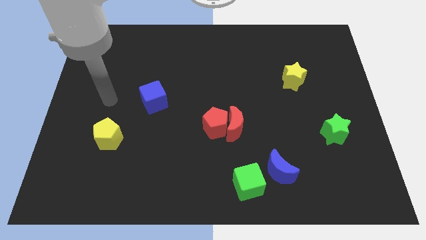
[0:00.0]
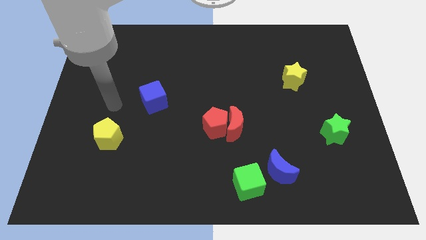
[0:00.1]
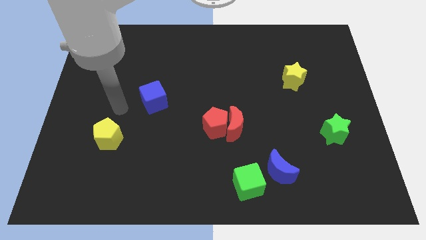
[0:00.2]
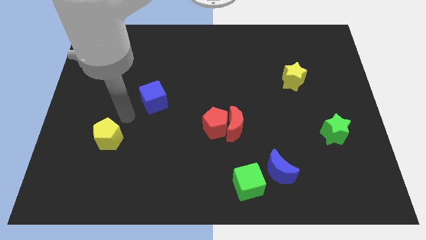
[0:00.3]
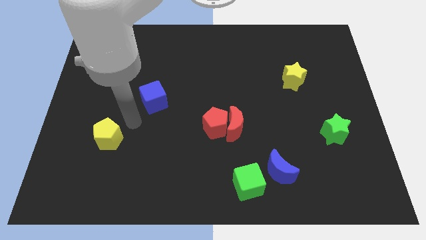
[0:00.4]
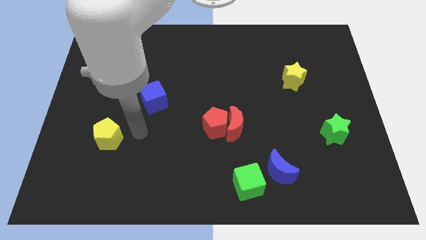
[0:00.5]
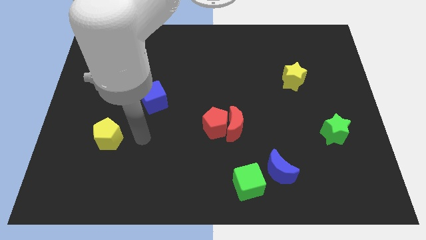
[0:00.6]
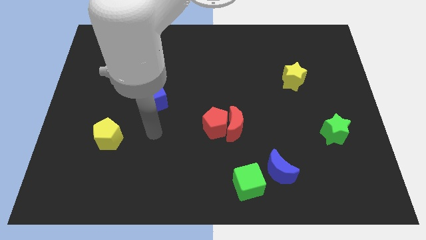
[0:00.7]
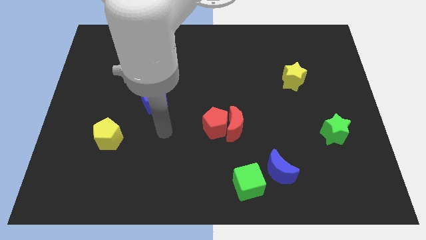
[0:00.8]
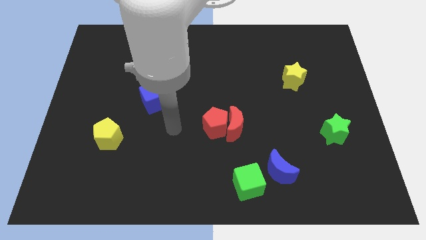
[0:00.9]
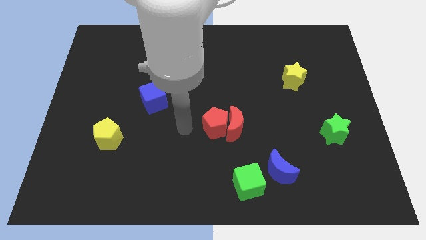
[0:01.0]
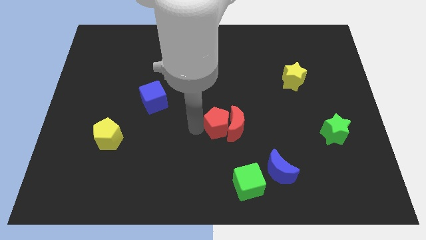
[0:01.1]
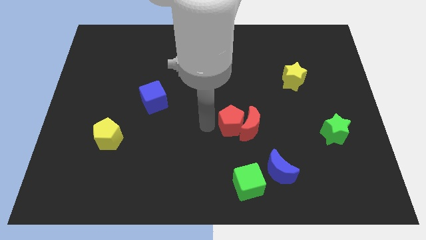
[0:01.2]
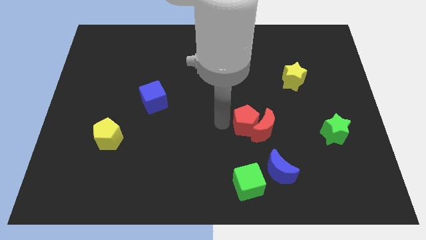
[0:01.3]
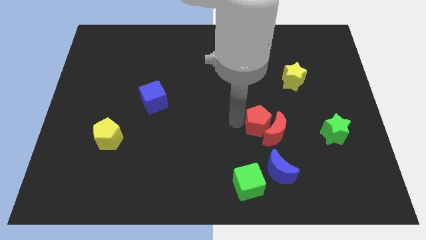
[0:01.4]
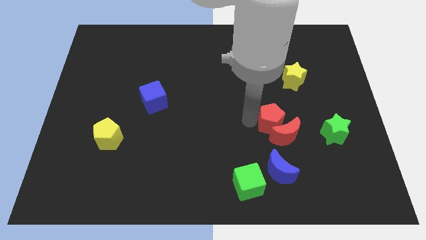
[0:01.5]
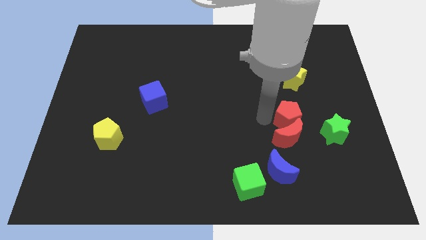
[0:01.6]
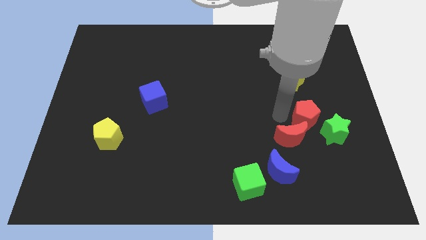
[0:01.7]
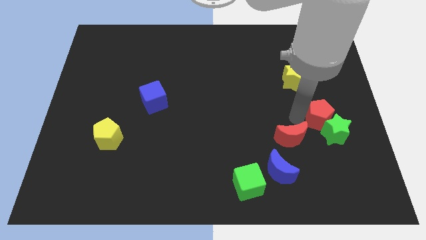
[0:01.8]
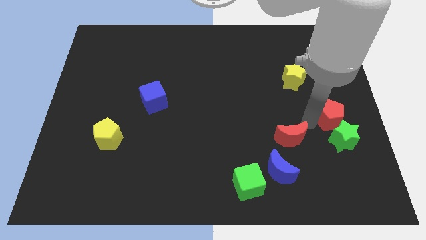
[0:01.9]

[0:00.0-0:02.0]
pull the red moon apart from the red pentagon

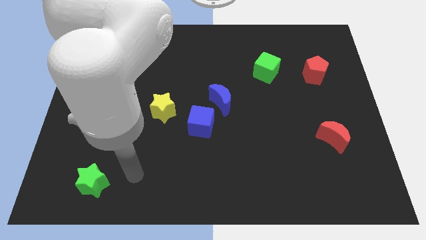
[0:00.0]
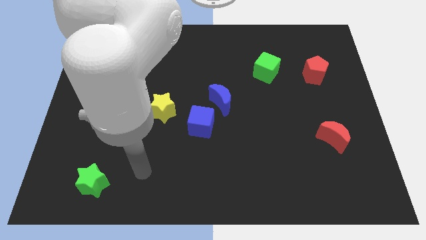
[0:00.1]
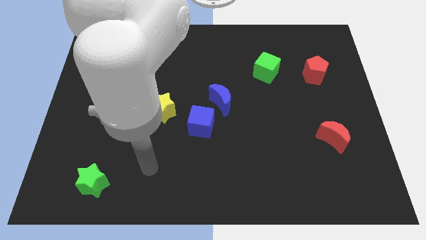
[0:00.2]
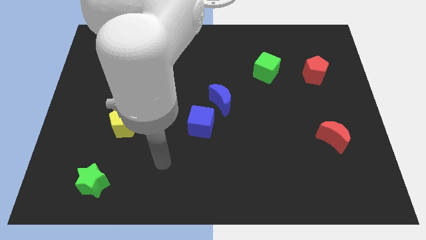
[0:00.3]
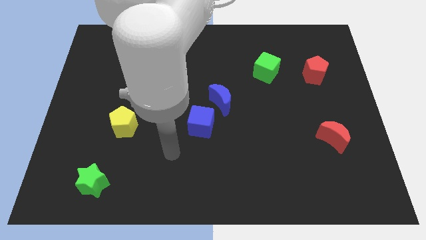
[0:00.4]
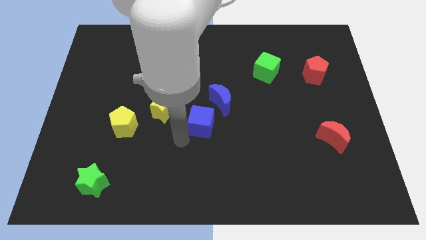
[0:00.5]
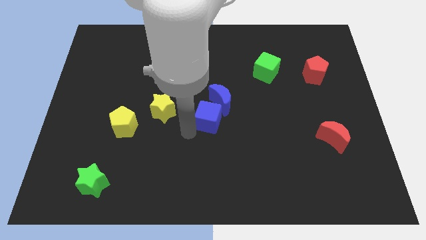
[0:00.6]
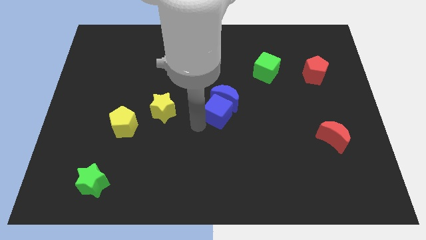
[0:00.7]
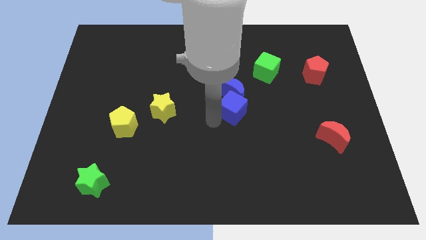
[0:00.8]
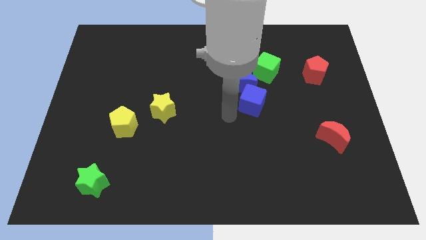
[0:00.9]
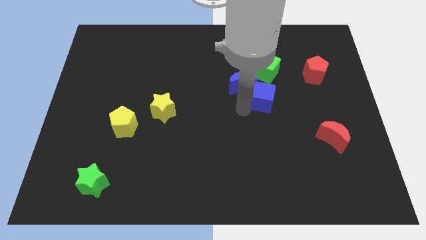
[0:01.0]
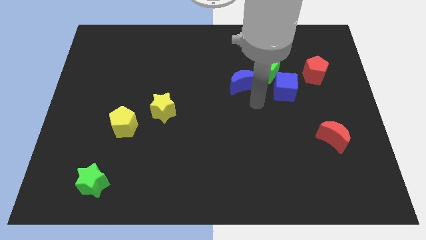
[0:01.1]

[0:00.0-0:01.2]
move the blue moon away from the blue cube

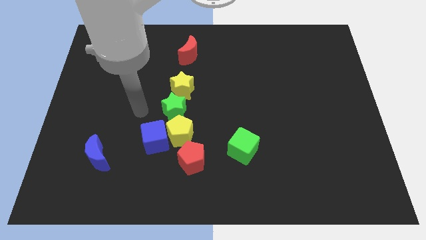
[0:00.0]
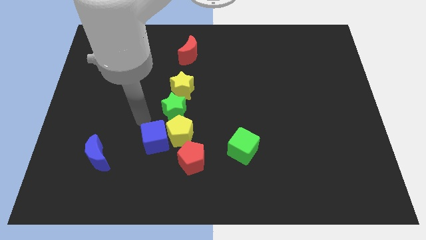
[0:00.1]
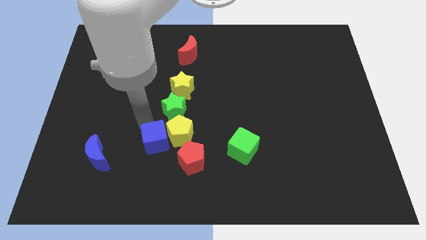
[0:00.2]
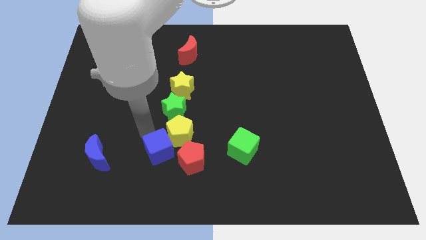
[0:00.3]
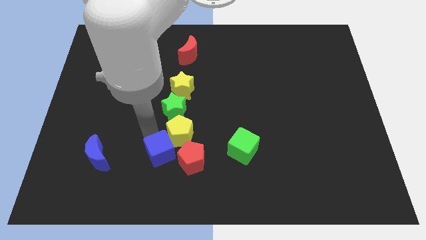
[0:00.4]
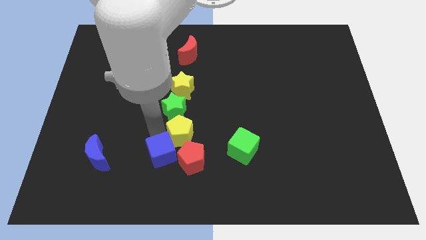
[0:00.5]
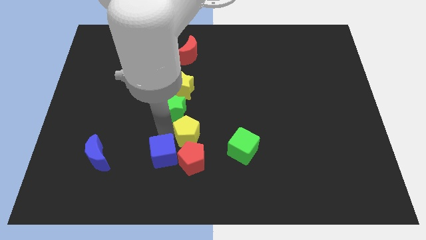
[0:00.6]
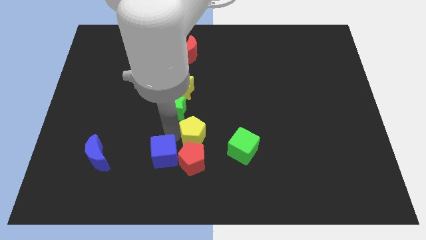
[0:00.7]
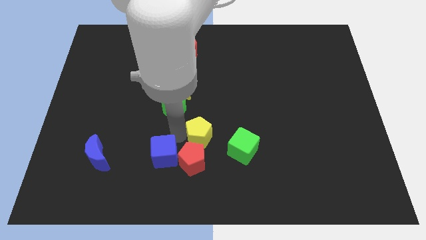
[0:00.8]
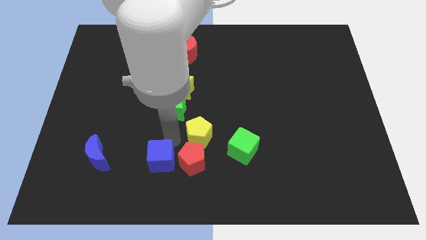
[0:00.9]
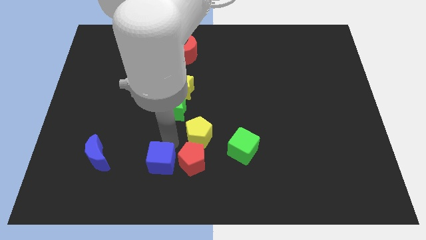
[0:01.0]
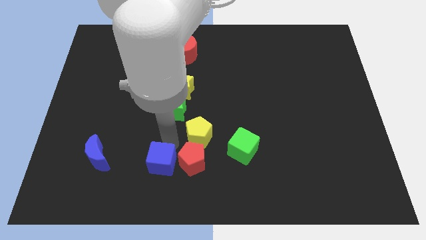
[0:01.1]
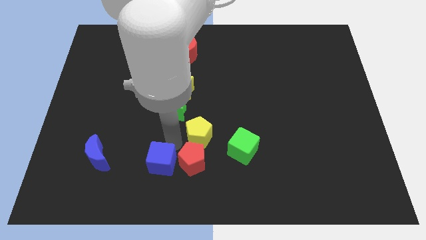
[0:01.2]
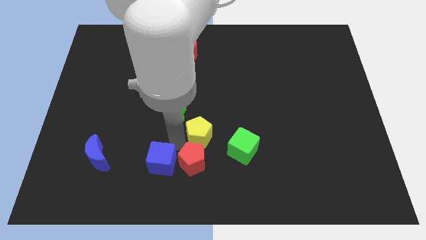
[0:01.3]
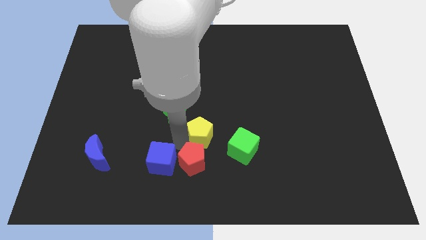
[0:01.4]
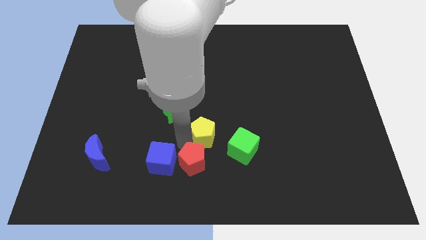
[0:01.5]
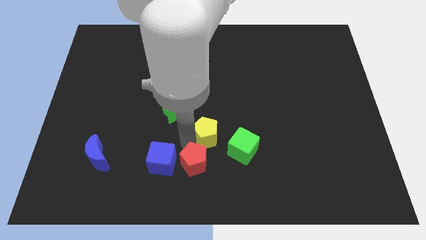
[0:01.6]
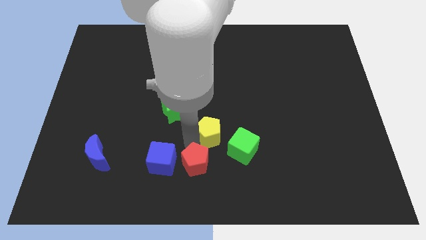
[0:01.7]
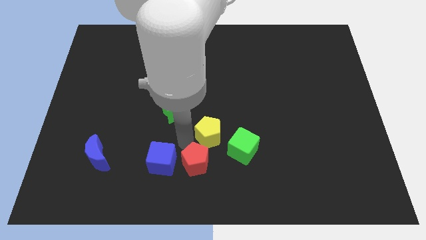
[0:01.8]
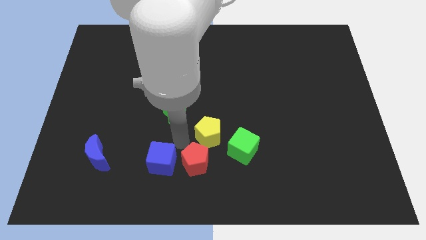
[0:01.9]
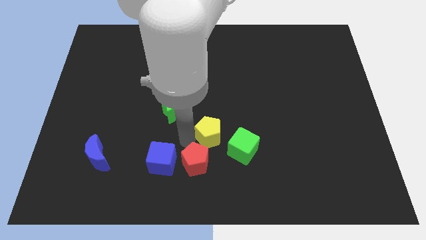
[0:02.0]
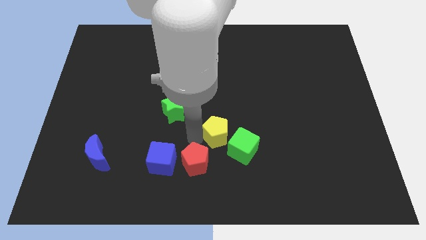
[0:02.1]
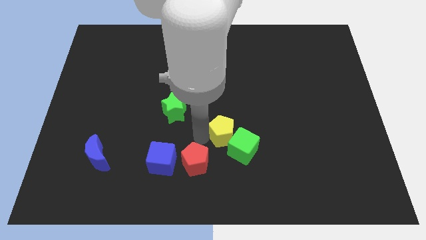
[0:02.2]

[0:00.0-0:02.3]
separate the yellow pentagon from the blue cube, red pentagon, and green star

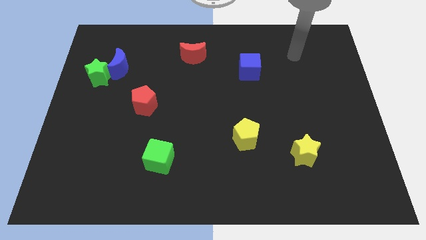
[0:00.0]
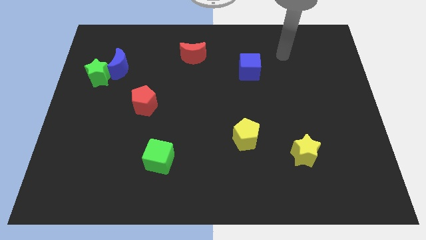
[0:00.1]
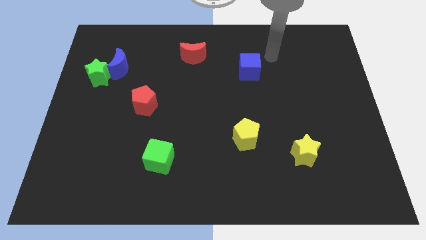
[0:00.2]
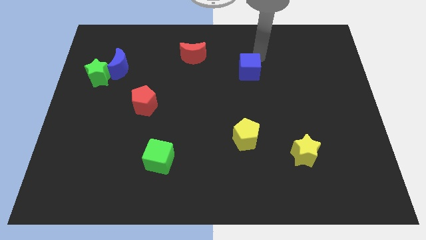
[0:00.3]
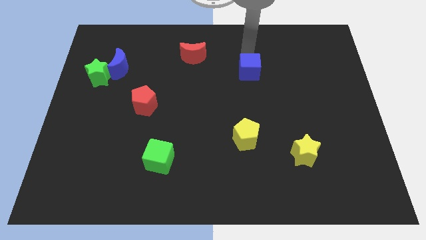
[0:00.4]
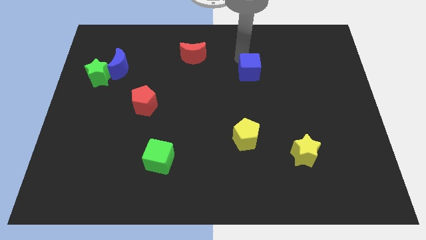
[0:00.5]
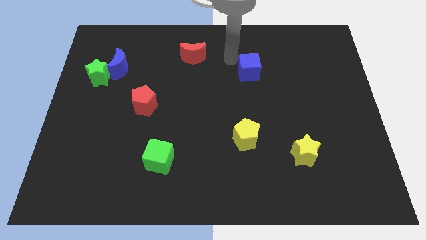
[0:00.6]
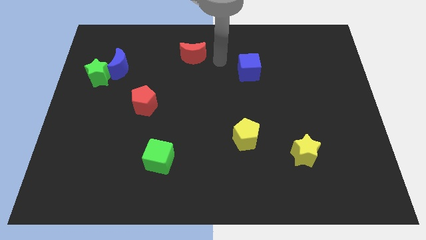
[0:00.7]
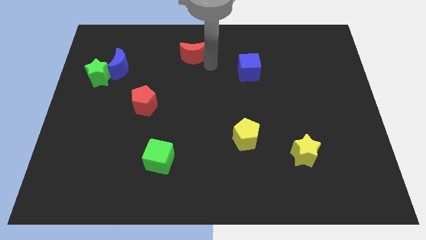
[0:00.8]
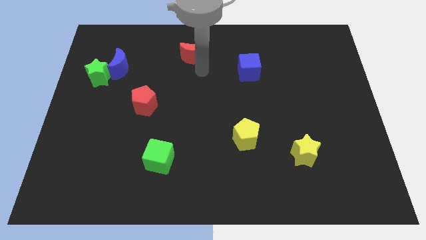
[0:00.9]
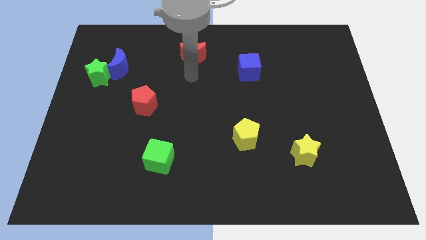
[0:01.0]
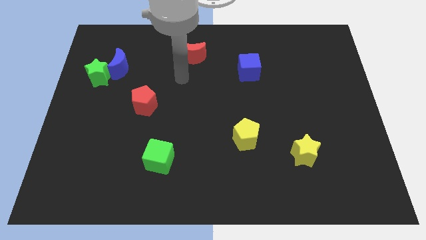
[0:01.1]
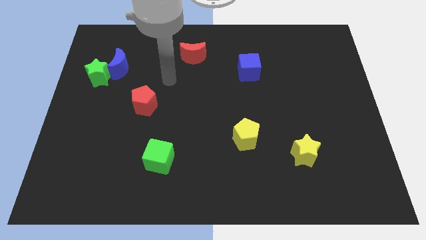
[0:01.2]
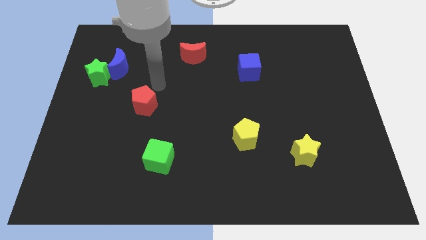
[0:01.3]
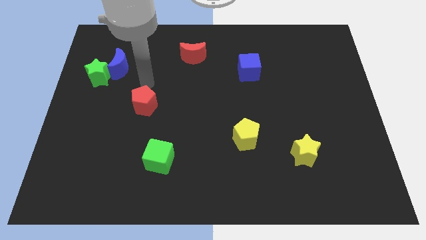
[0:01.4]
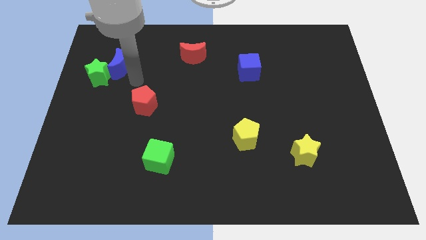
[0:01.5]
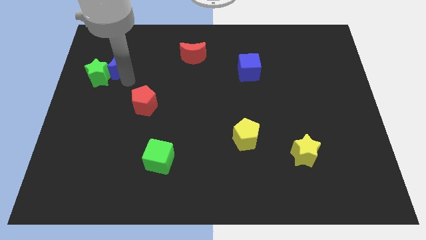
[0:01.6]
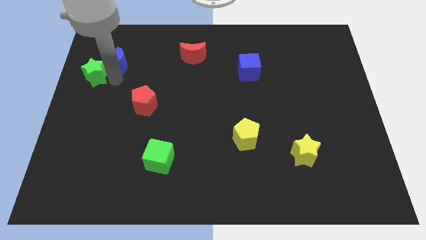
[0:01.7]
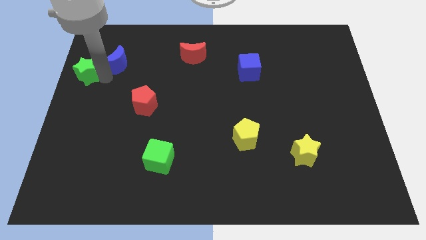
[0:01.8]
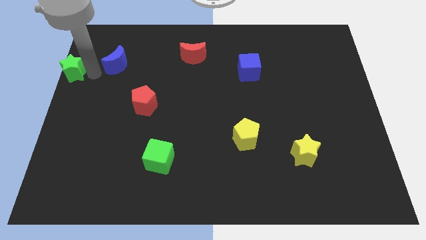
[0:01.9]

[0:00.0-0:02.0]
separate the blue moon from the green star

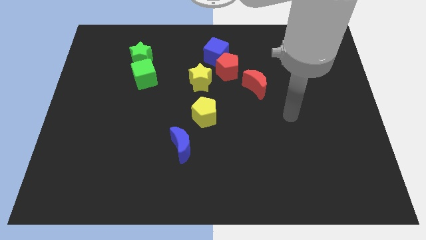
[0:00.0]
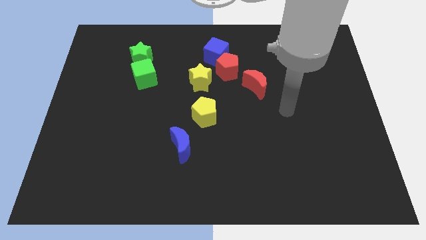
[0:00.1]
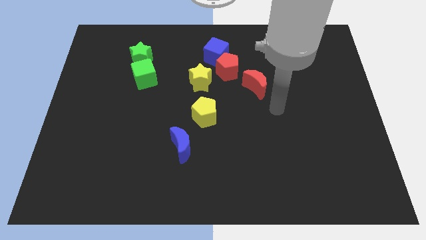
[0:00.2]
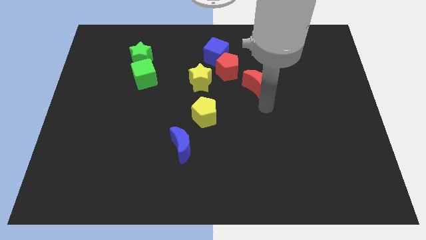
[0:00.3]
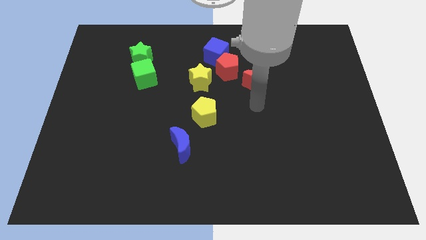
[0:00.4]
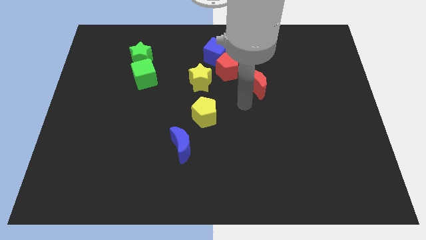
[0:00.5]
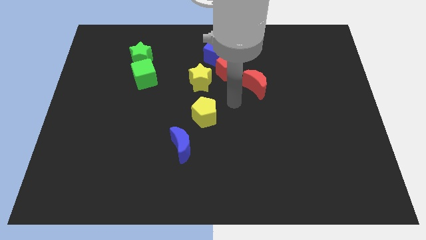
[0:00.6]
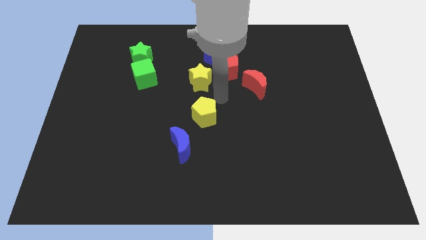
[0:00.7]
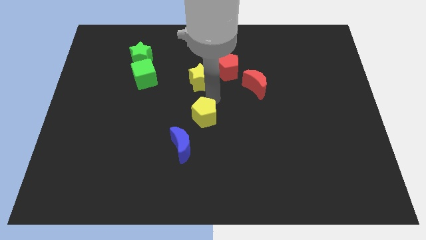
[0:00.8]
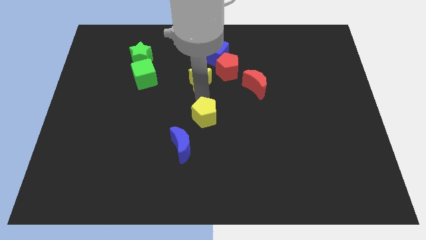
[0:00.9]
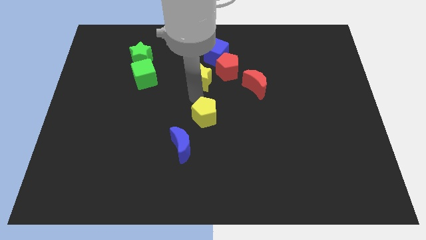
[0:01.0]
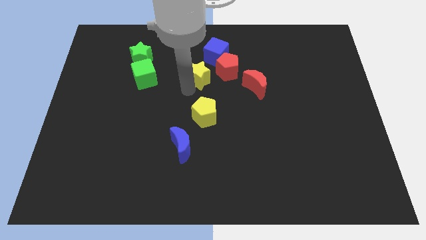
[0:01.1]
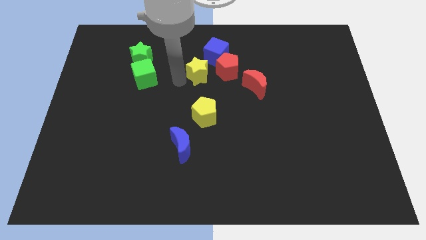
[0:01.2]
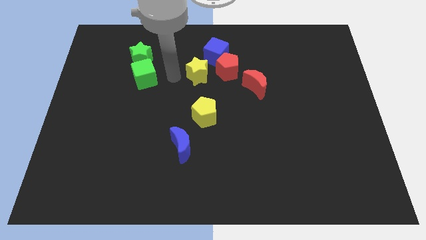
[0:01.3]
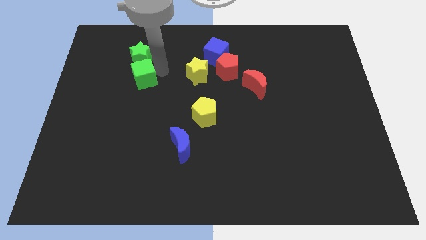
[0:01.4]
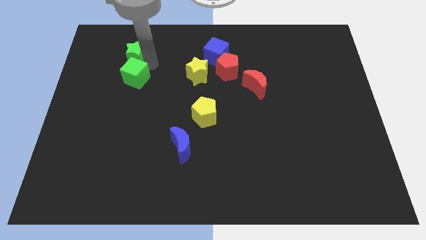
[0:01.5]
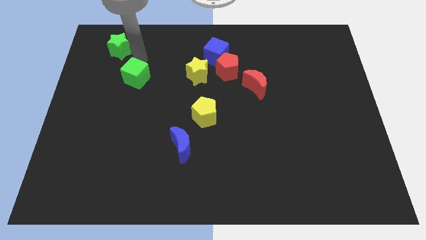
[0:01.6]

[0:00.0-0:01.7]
pull the green cube apart from the green star
